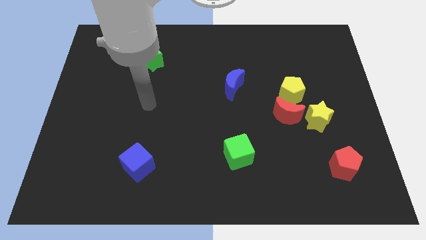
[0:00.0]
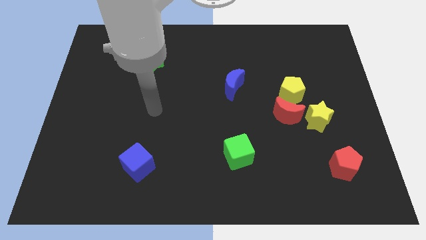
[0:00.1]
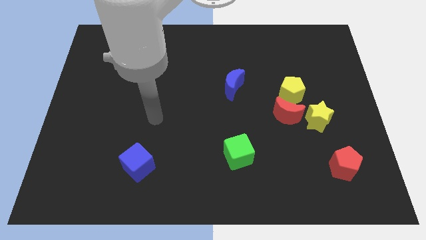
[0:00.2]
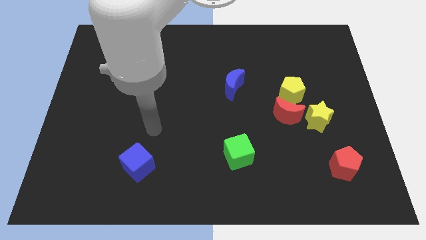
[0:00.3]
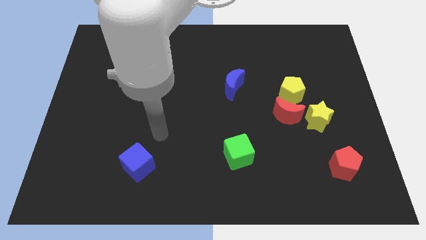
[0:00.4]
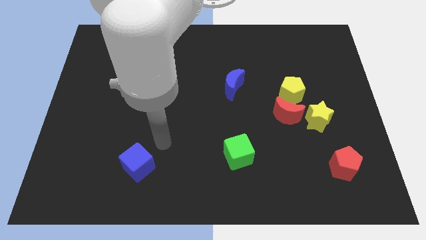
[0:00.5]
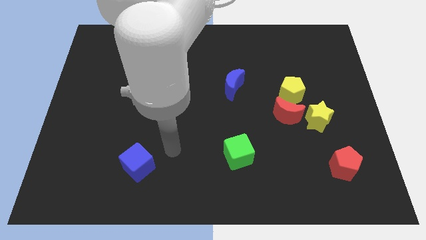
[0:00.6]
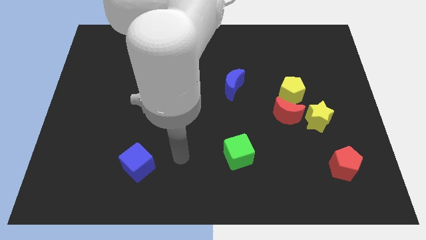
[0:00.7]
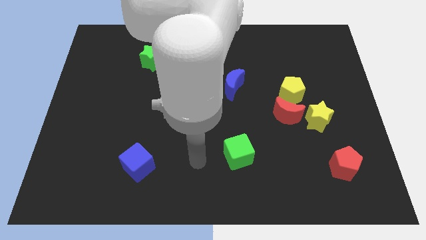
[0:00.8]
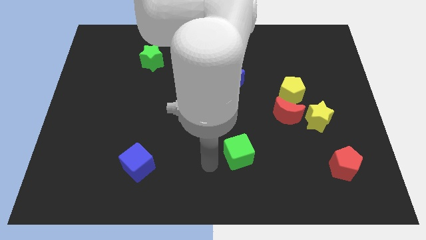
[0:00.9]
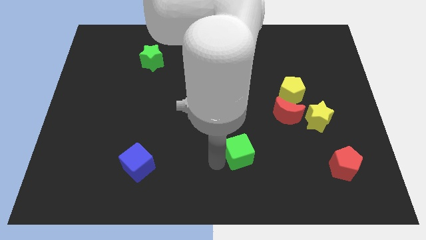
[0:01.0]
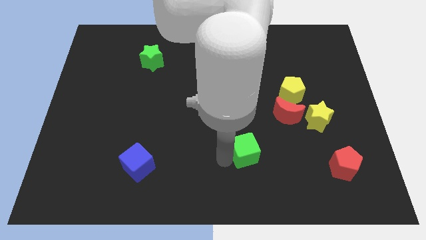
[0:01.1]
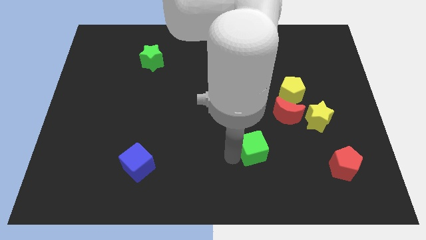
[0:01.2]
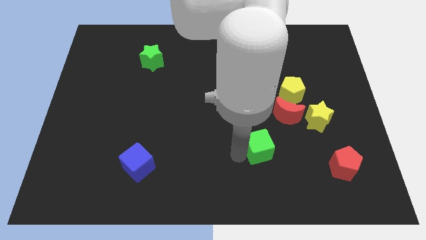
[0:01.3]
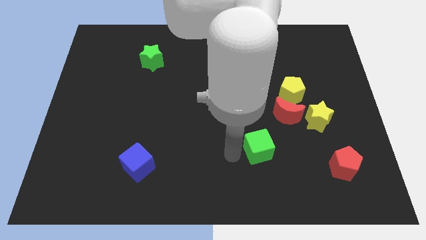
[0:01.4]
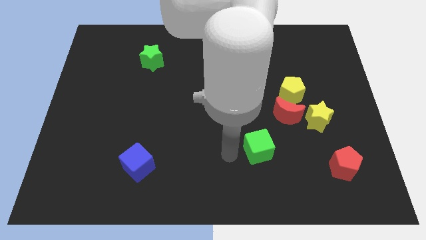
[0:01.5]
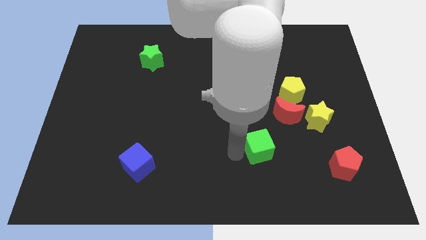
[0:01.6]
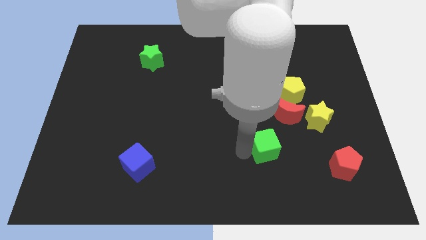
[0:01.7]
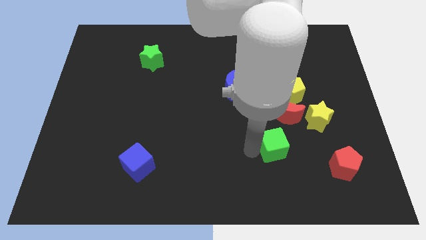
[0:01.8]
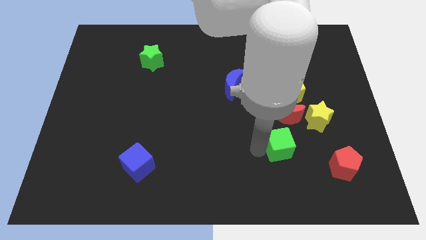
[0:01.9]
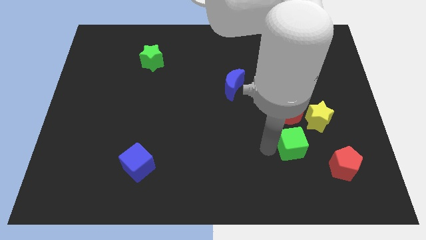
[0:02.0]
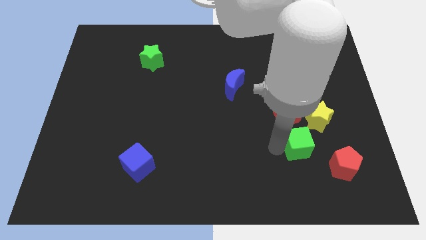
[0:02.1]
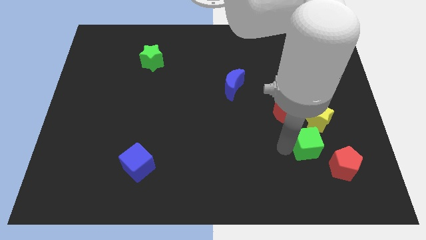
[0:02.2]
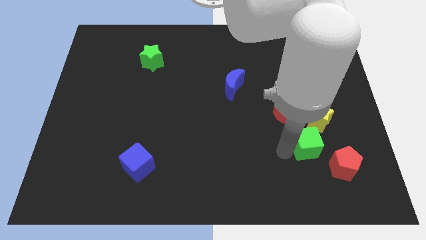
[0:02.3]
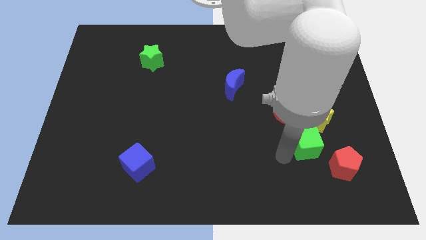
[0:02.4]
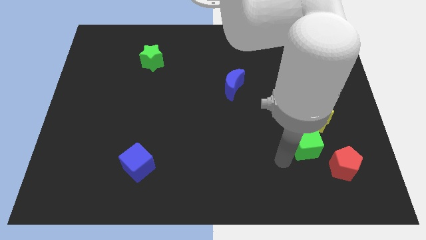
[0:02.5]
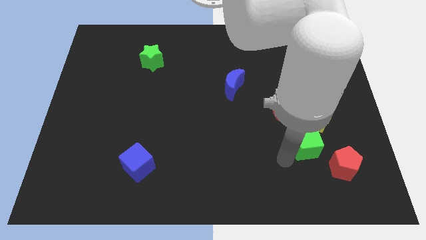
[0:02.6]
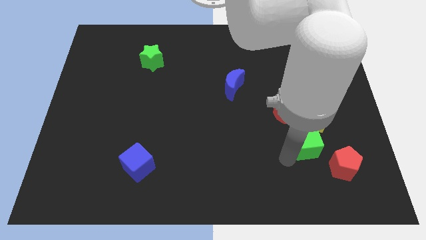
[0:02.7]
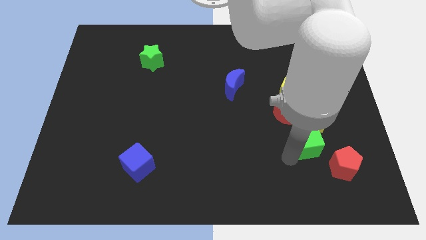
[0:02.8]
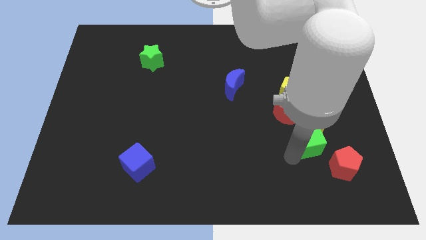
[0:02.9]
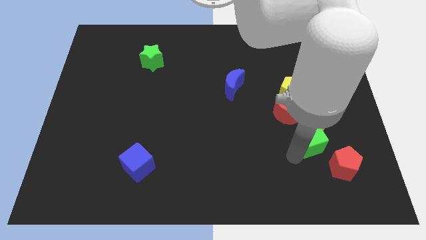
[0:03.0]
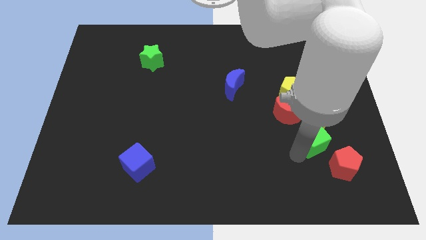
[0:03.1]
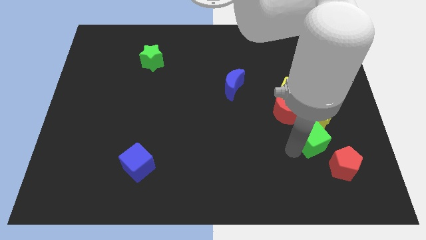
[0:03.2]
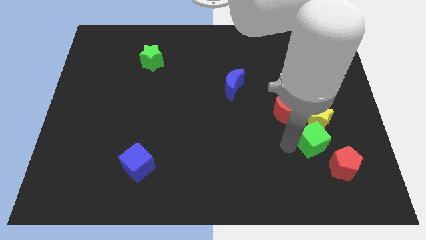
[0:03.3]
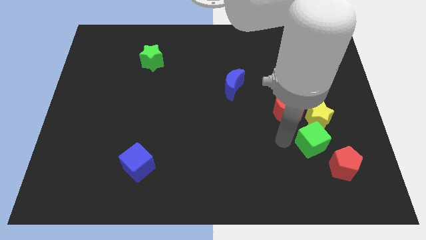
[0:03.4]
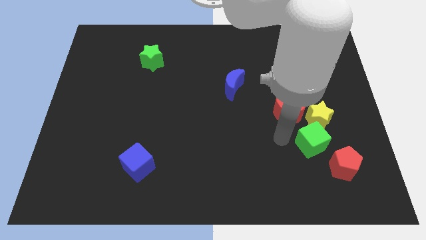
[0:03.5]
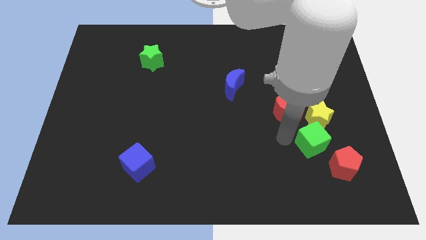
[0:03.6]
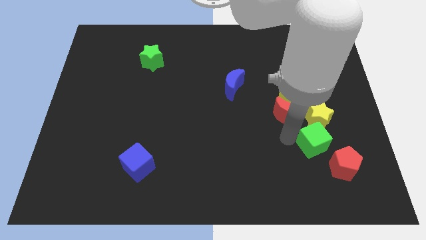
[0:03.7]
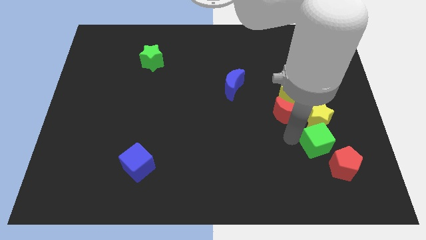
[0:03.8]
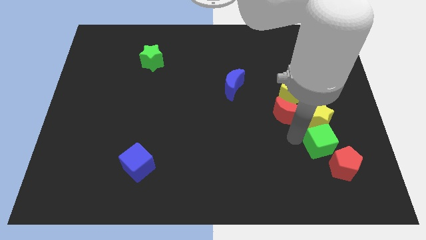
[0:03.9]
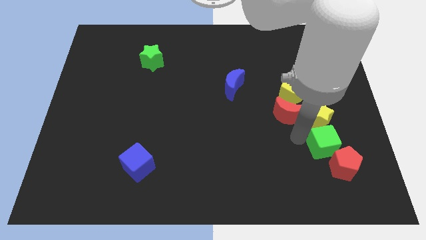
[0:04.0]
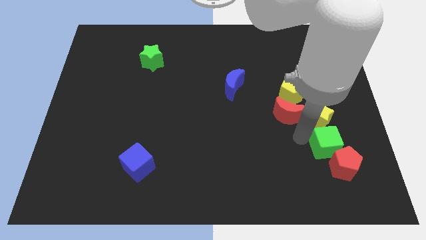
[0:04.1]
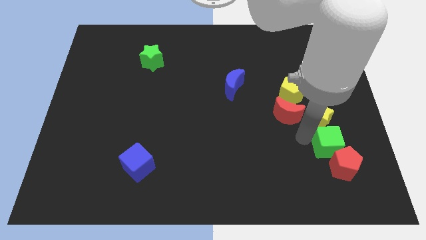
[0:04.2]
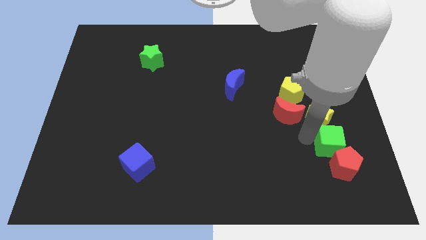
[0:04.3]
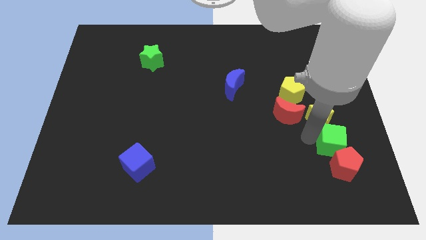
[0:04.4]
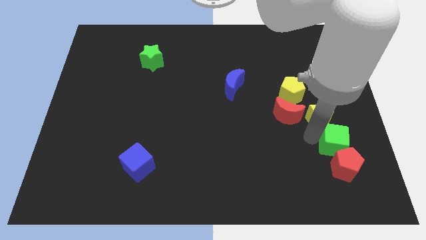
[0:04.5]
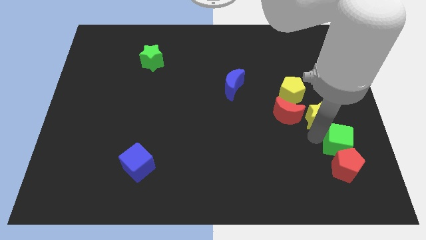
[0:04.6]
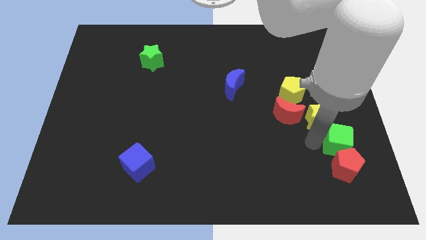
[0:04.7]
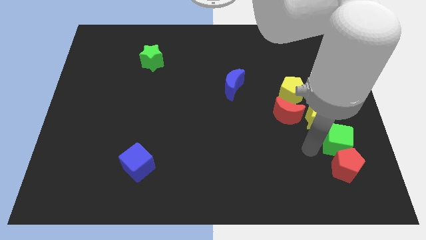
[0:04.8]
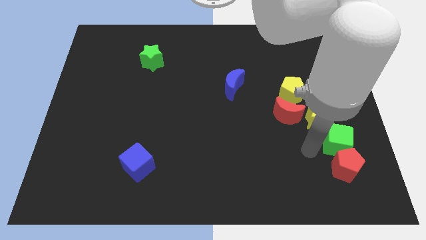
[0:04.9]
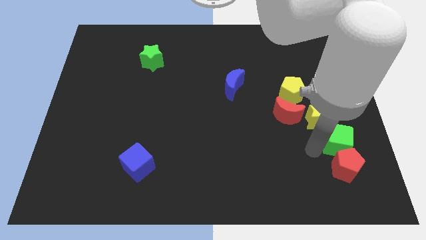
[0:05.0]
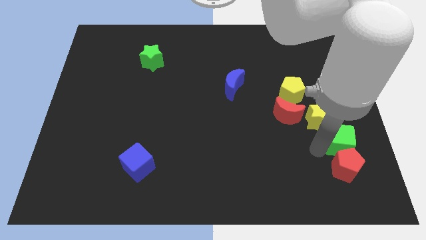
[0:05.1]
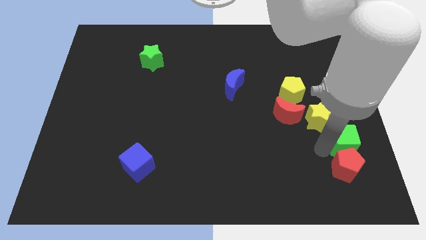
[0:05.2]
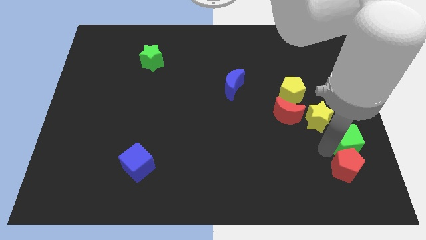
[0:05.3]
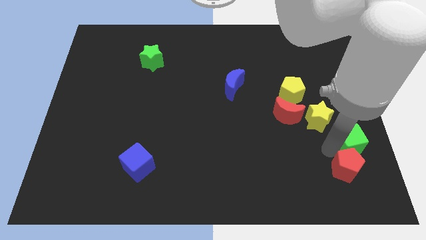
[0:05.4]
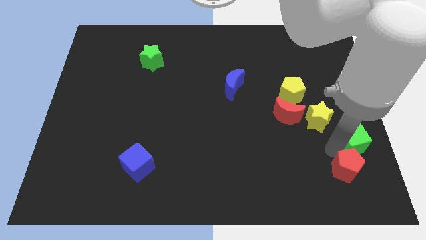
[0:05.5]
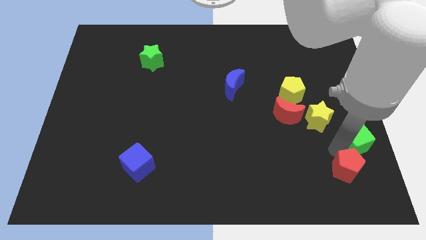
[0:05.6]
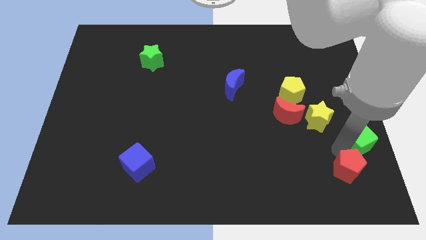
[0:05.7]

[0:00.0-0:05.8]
put the green cube to the center right
